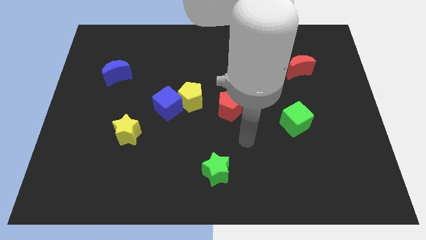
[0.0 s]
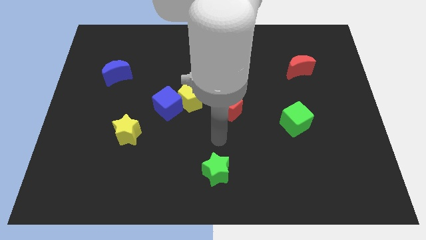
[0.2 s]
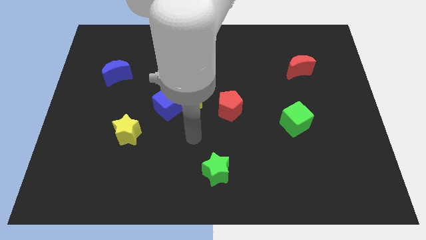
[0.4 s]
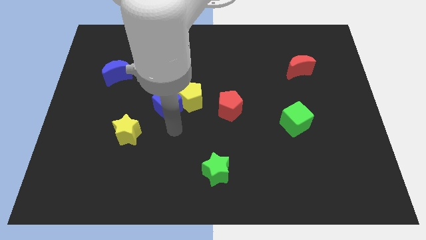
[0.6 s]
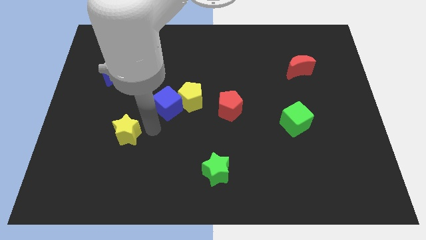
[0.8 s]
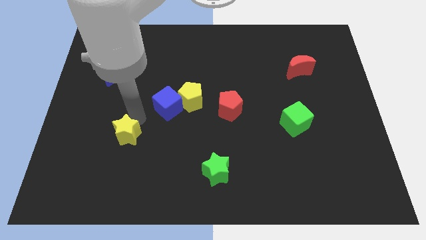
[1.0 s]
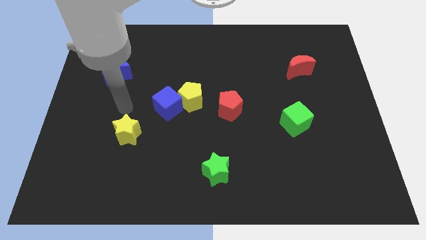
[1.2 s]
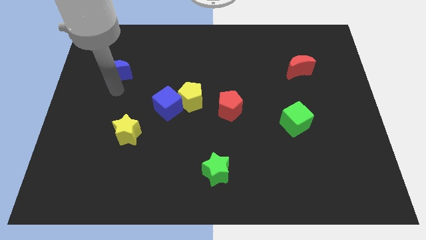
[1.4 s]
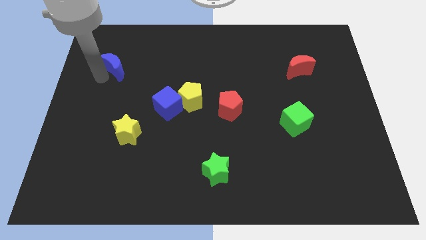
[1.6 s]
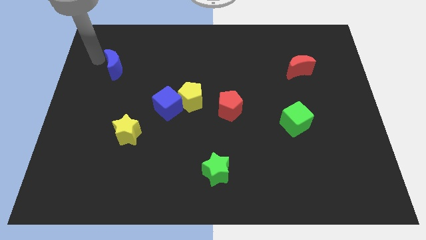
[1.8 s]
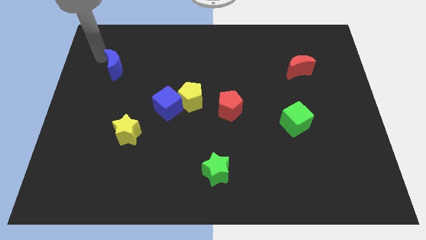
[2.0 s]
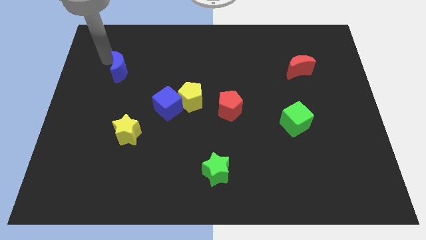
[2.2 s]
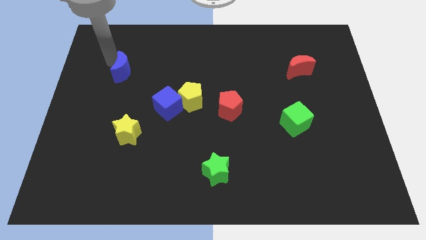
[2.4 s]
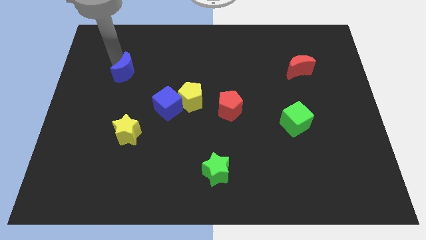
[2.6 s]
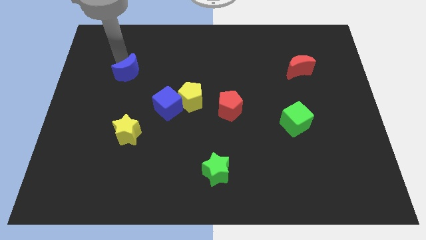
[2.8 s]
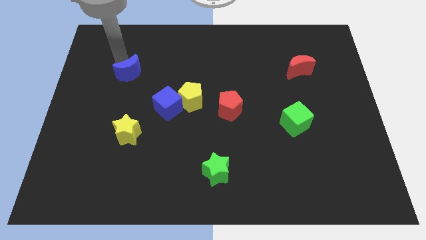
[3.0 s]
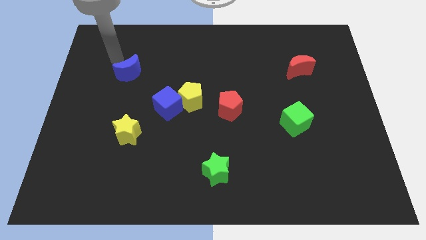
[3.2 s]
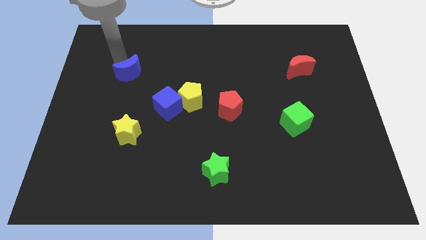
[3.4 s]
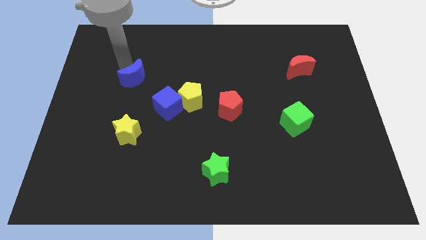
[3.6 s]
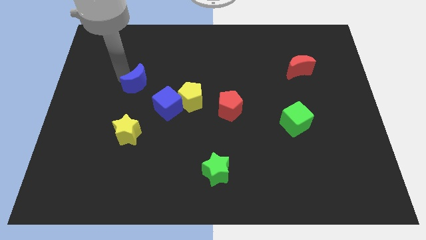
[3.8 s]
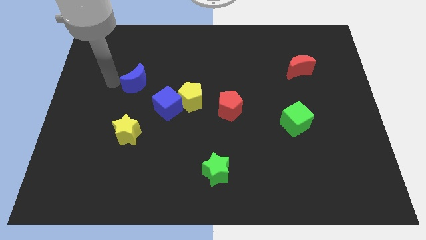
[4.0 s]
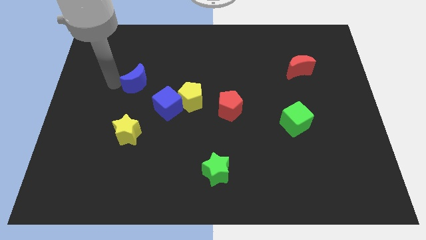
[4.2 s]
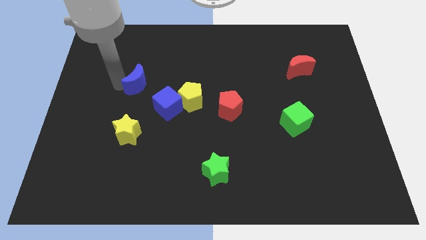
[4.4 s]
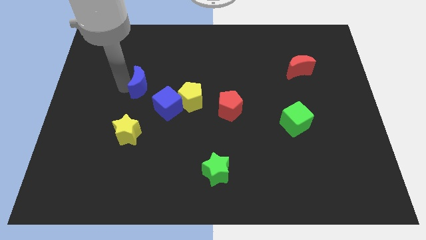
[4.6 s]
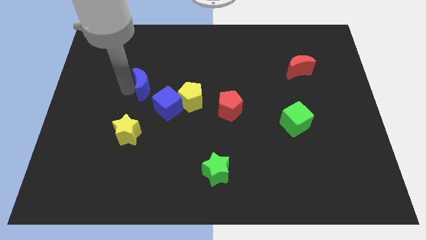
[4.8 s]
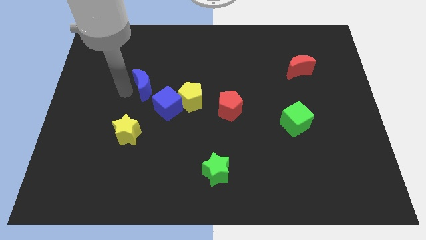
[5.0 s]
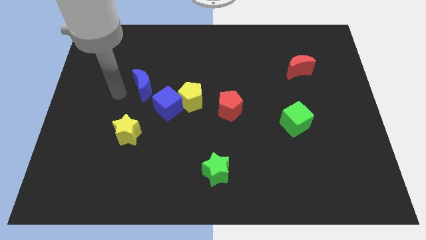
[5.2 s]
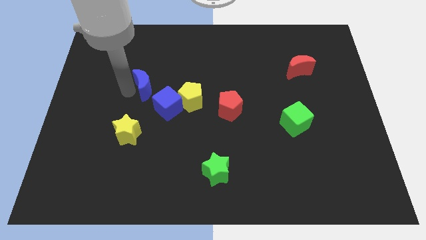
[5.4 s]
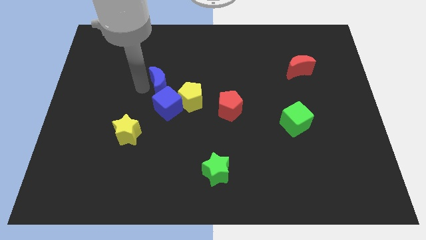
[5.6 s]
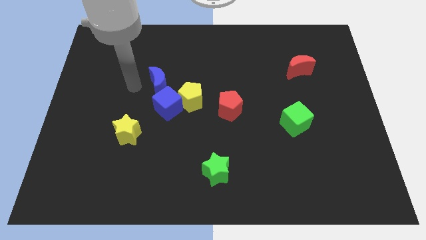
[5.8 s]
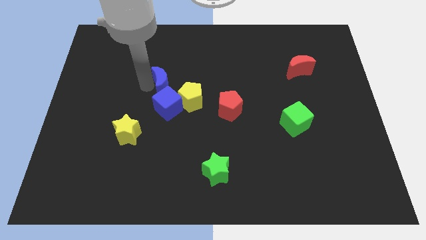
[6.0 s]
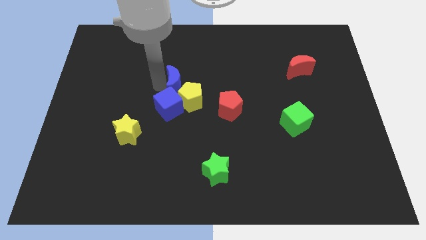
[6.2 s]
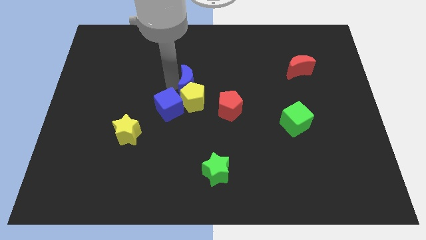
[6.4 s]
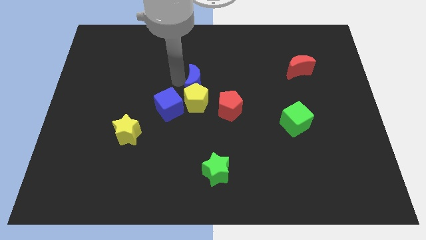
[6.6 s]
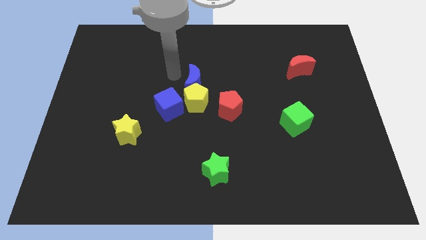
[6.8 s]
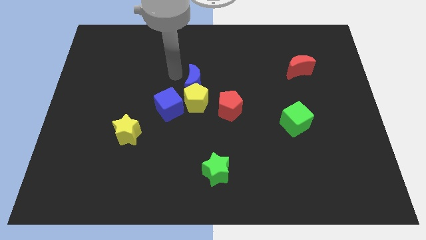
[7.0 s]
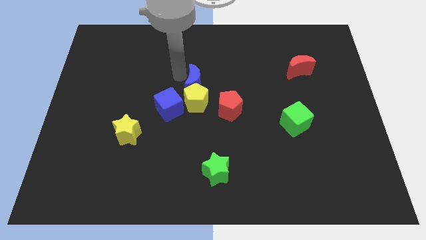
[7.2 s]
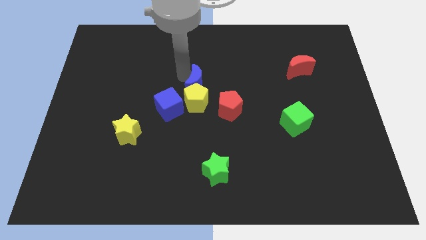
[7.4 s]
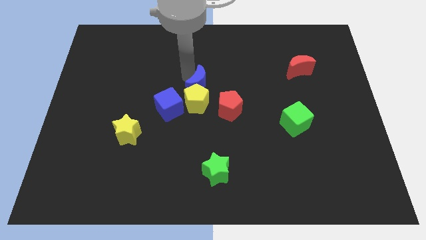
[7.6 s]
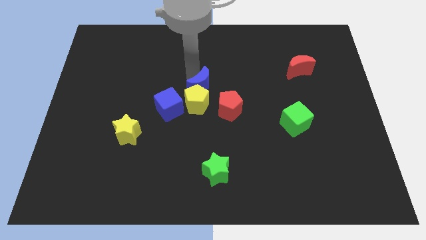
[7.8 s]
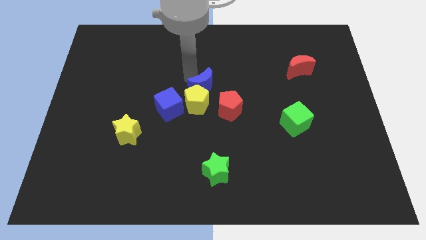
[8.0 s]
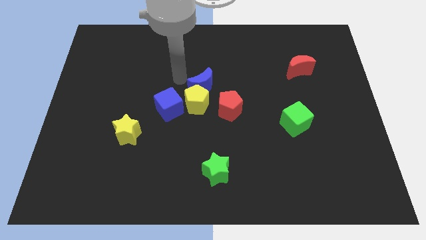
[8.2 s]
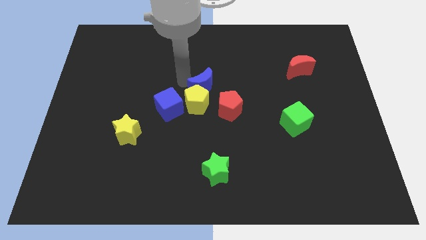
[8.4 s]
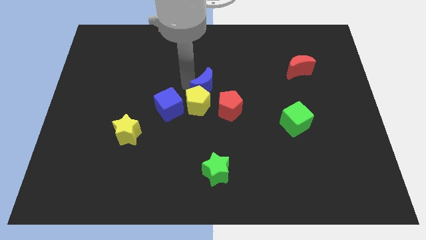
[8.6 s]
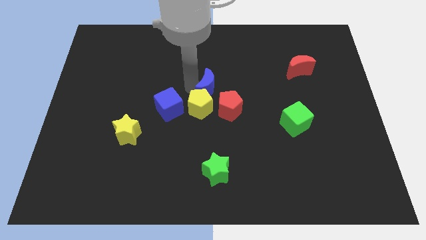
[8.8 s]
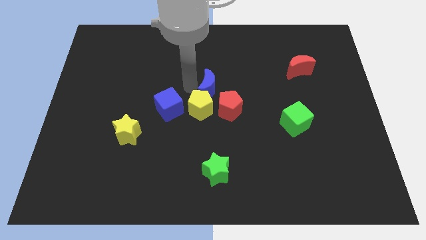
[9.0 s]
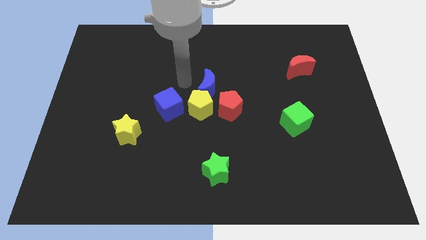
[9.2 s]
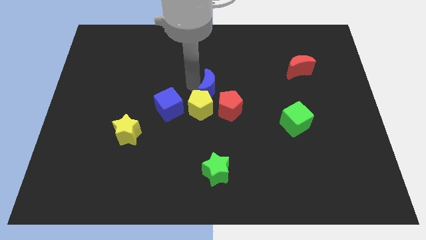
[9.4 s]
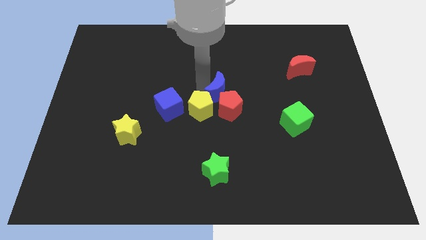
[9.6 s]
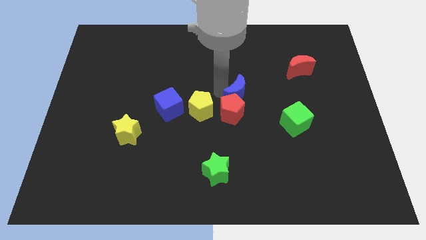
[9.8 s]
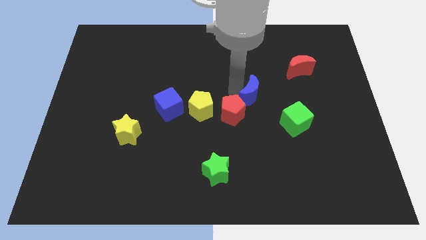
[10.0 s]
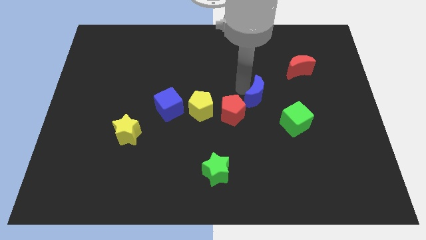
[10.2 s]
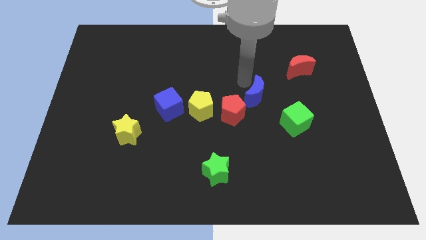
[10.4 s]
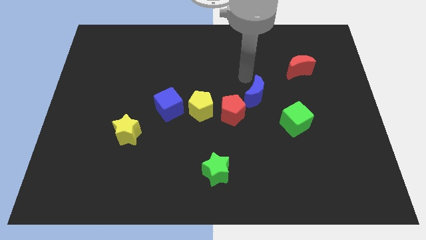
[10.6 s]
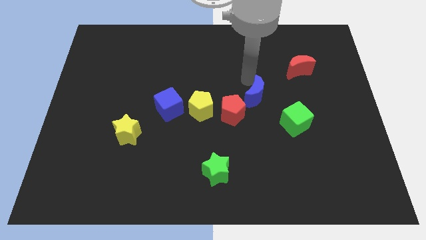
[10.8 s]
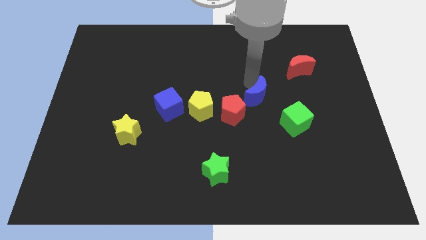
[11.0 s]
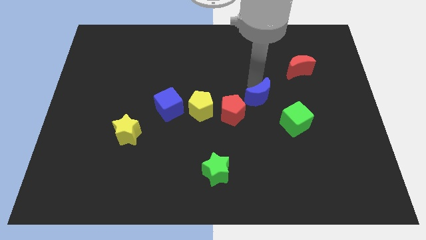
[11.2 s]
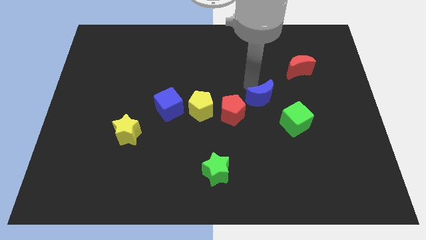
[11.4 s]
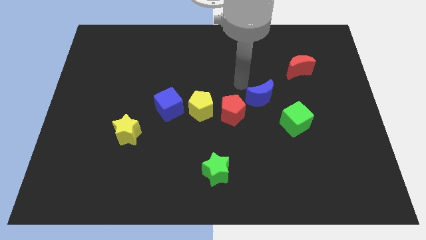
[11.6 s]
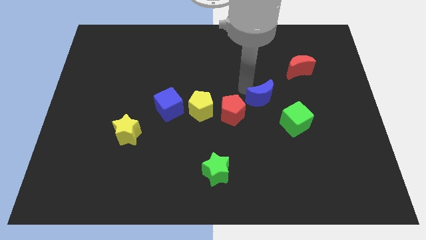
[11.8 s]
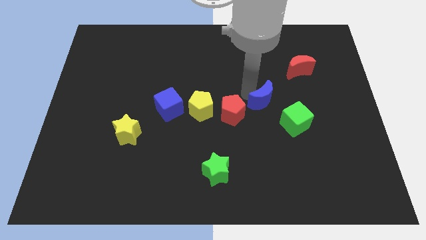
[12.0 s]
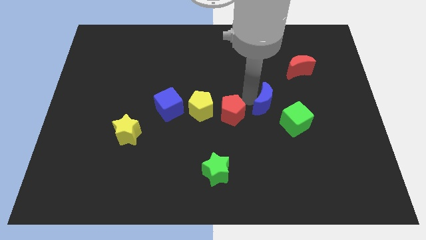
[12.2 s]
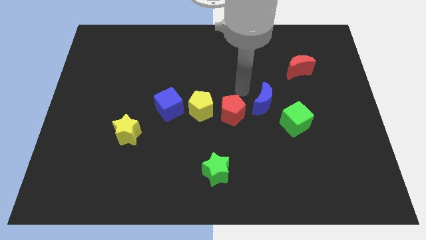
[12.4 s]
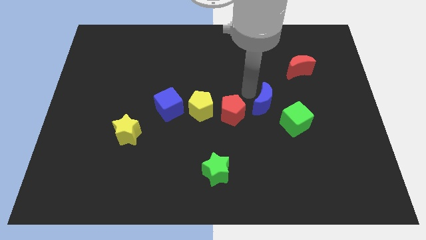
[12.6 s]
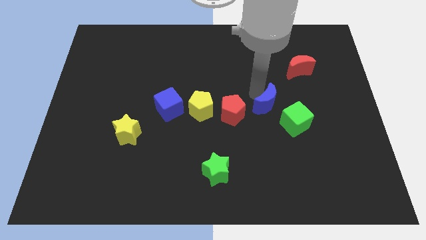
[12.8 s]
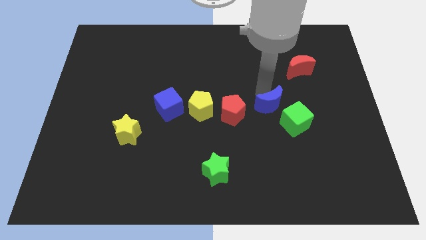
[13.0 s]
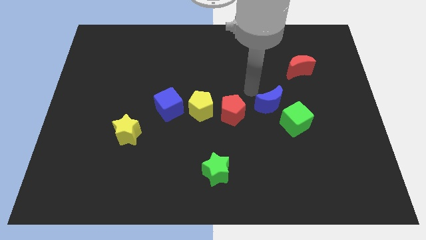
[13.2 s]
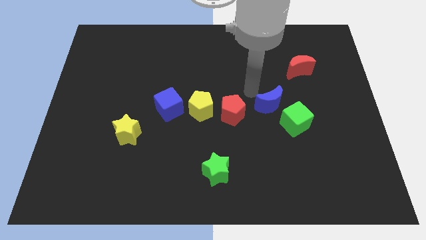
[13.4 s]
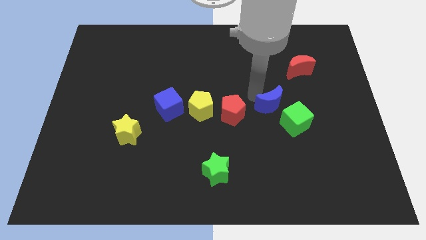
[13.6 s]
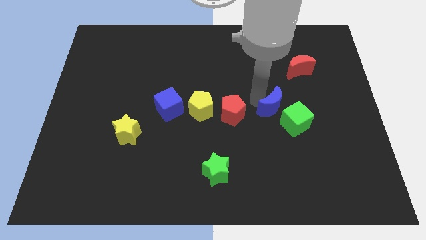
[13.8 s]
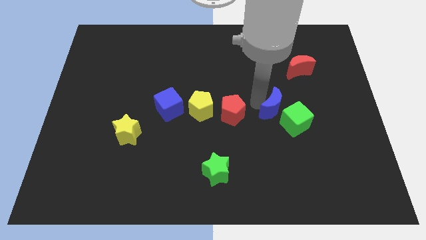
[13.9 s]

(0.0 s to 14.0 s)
move the blue moon towards the green cube
